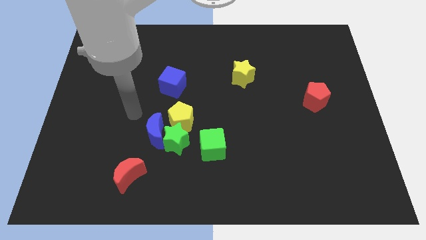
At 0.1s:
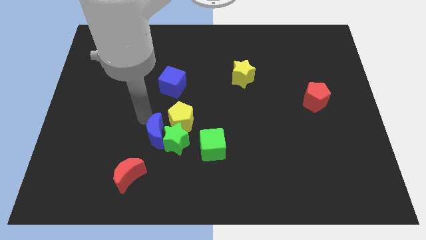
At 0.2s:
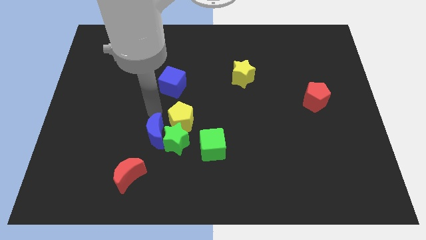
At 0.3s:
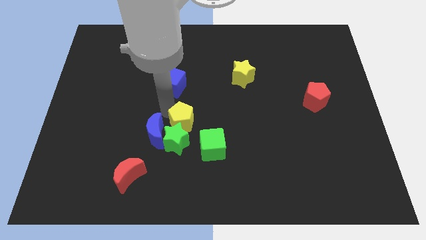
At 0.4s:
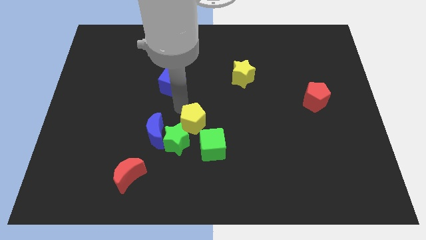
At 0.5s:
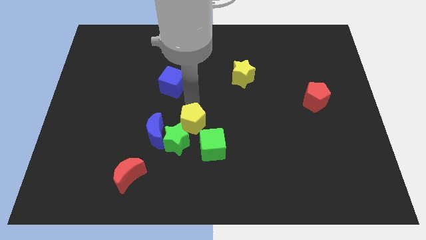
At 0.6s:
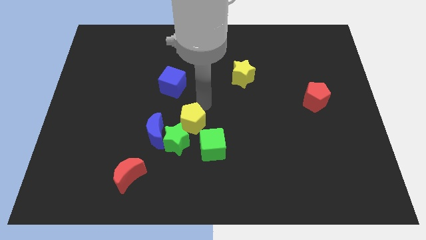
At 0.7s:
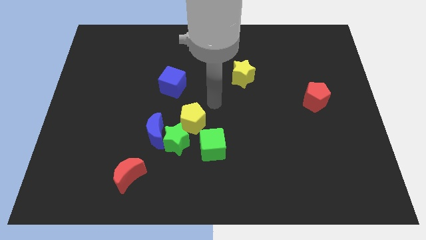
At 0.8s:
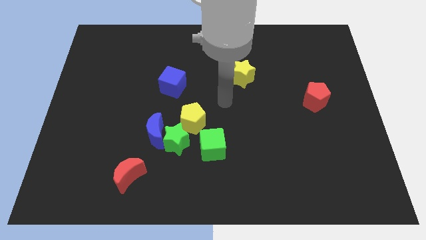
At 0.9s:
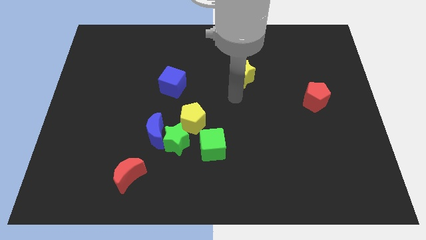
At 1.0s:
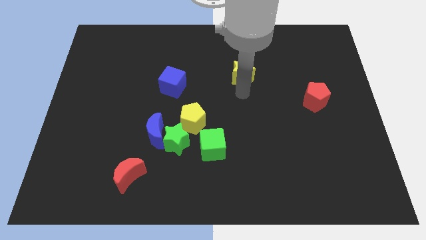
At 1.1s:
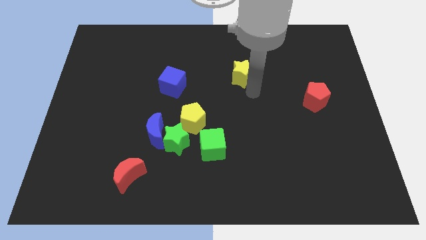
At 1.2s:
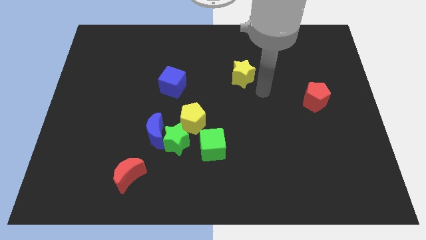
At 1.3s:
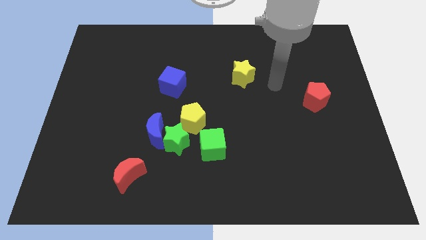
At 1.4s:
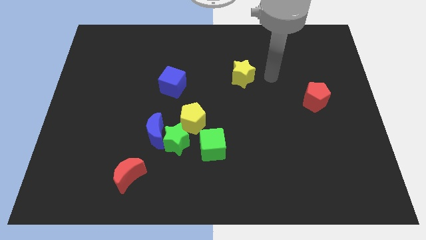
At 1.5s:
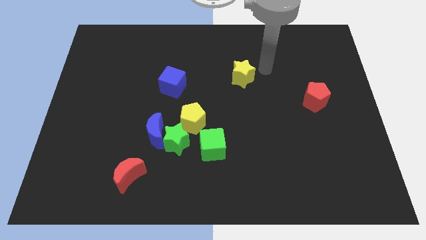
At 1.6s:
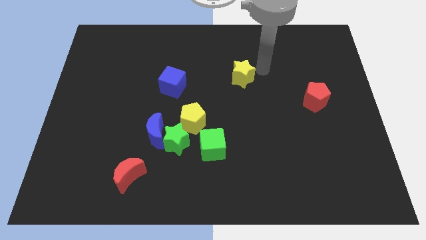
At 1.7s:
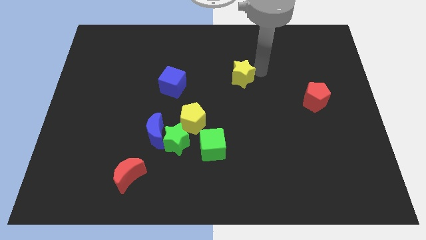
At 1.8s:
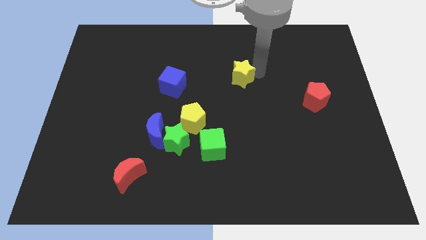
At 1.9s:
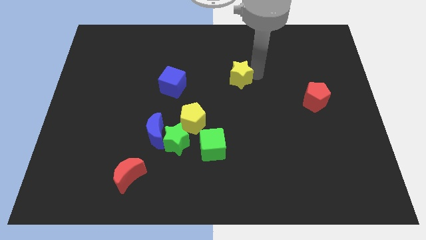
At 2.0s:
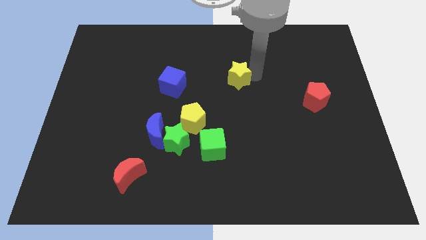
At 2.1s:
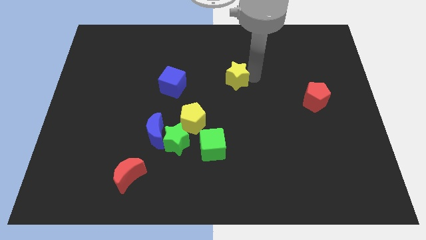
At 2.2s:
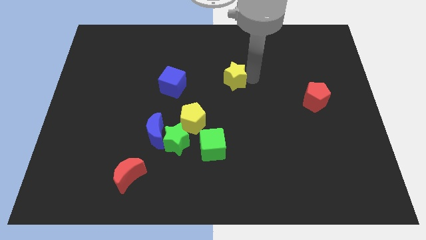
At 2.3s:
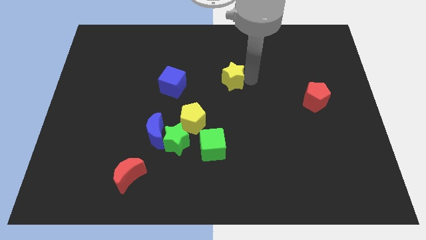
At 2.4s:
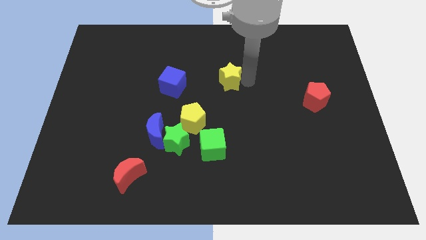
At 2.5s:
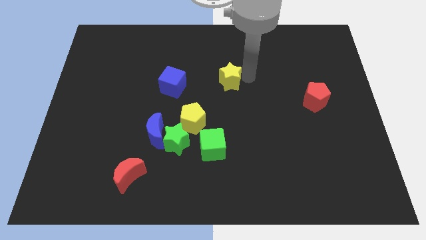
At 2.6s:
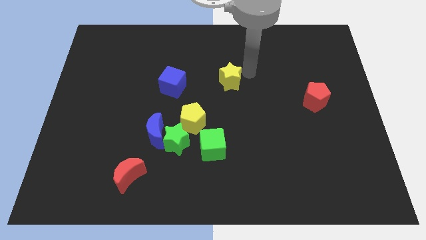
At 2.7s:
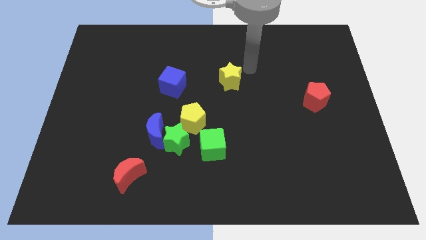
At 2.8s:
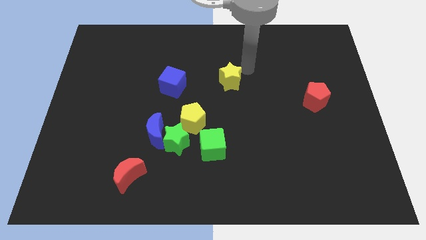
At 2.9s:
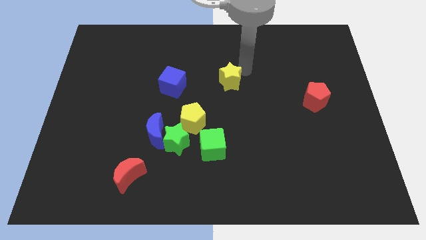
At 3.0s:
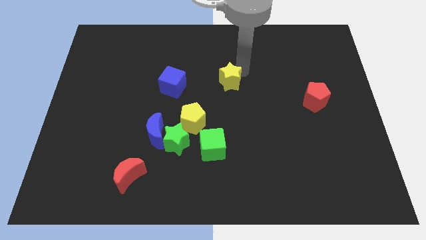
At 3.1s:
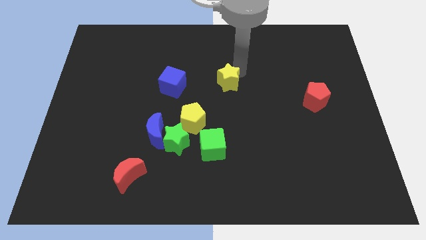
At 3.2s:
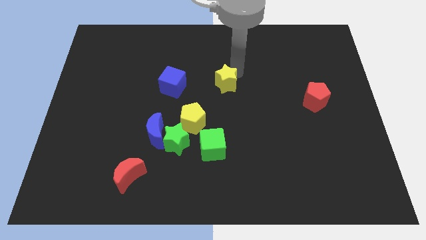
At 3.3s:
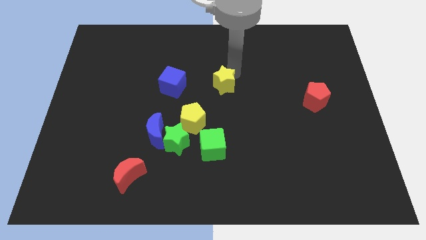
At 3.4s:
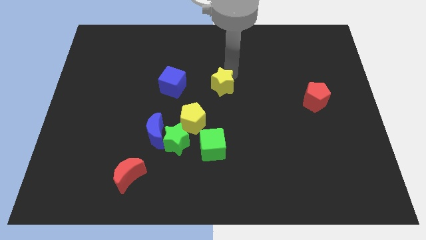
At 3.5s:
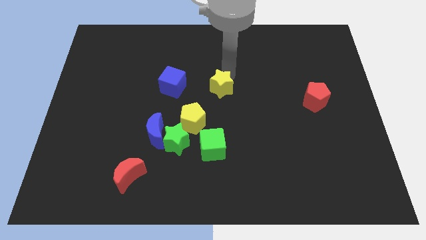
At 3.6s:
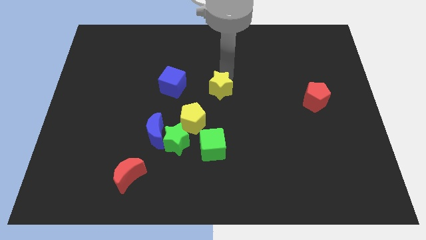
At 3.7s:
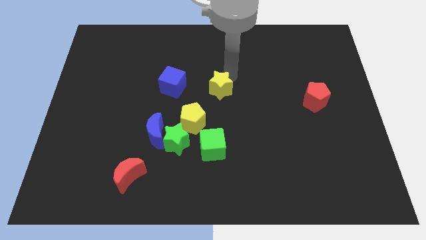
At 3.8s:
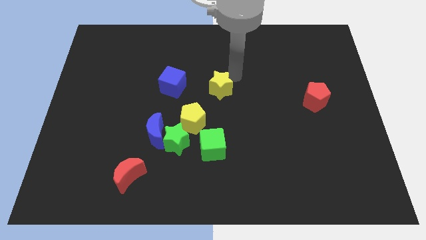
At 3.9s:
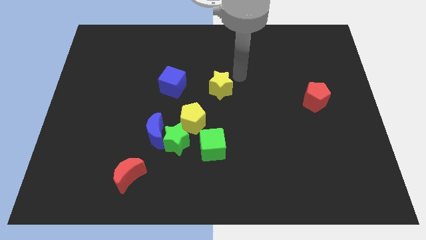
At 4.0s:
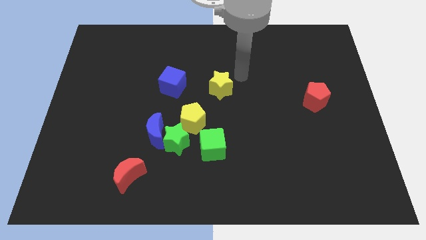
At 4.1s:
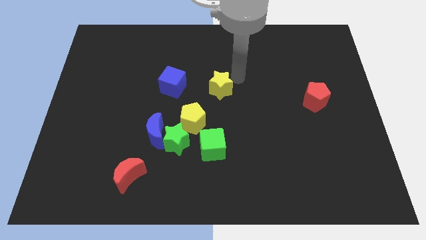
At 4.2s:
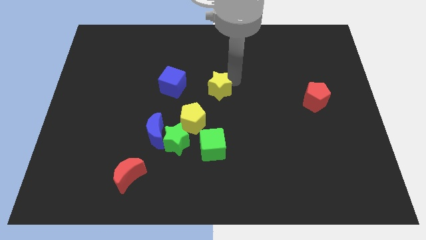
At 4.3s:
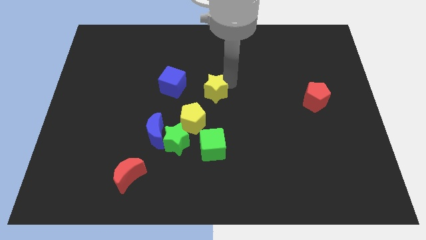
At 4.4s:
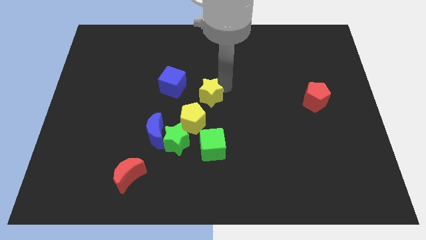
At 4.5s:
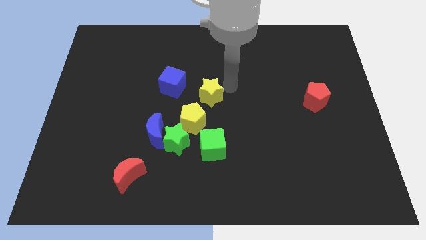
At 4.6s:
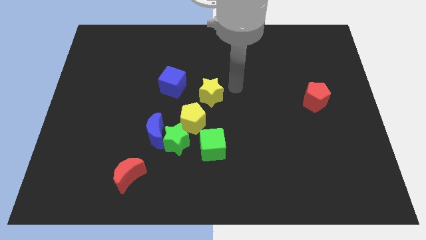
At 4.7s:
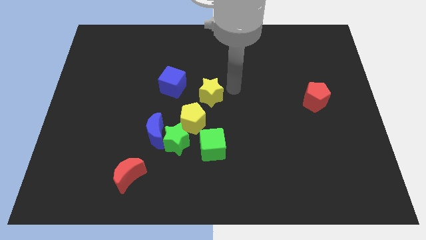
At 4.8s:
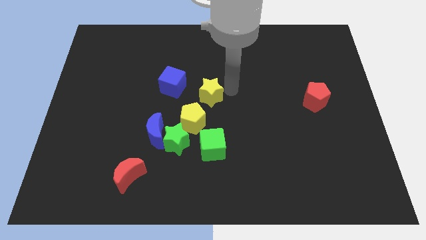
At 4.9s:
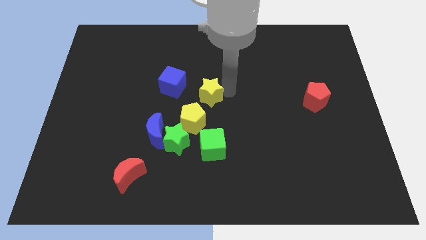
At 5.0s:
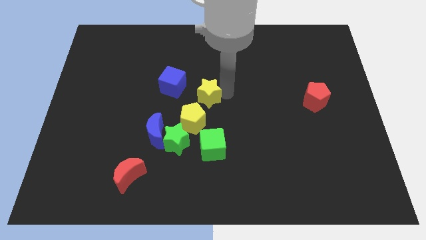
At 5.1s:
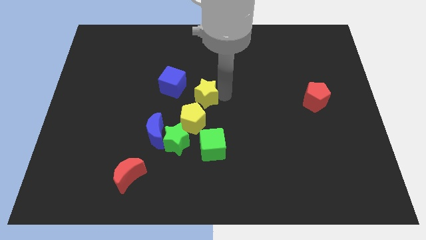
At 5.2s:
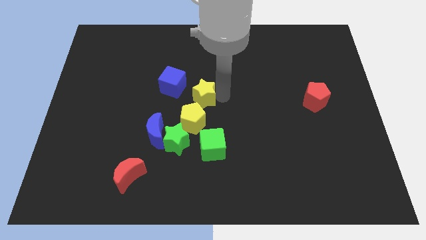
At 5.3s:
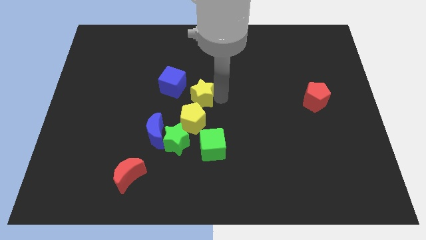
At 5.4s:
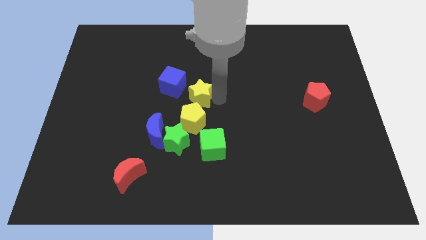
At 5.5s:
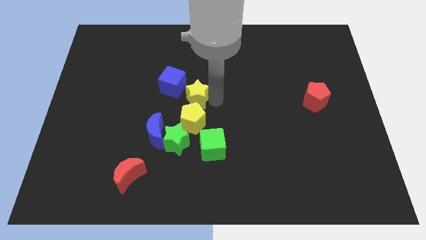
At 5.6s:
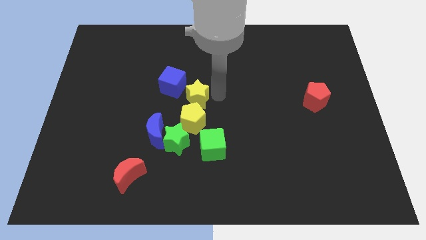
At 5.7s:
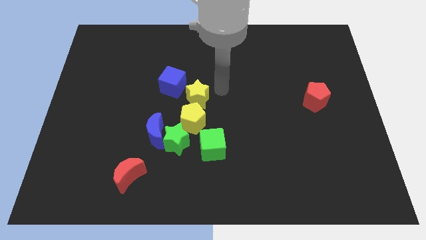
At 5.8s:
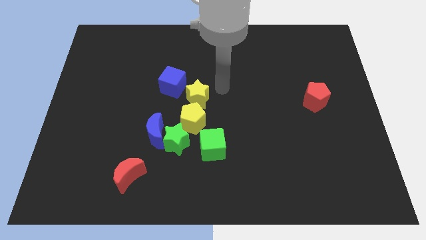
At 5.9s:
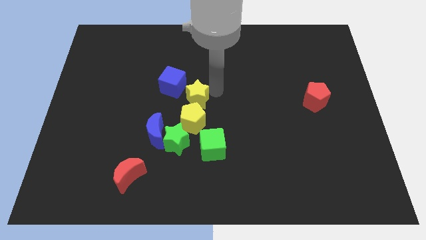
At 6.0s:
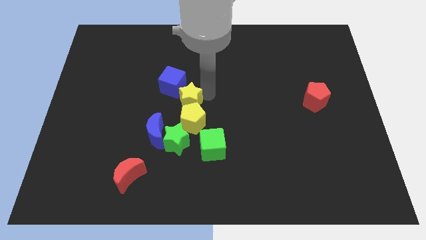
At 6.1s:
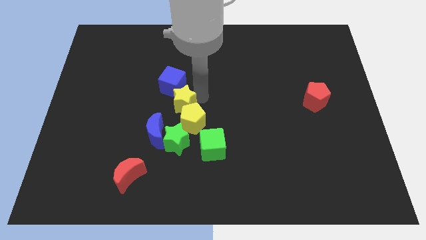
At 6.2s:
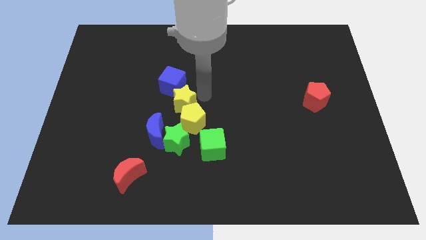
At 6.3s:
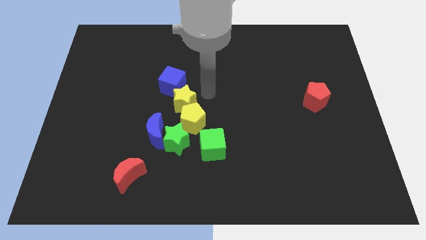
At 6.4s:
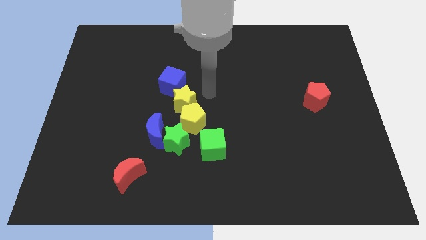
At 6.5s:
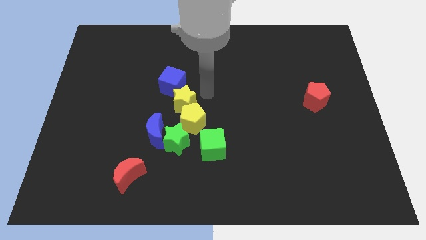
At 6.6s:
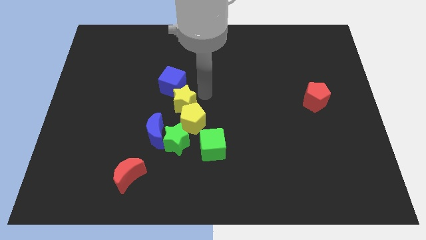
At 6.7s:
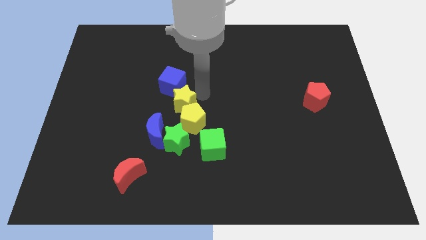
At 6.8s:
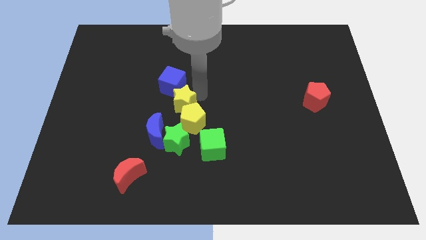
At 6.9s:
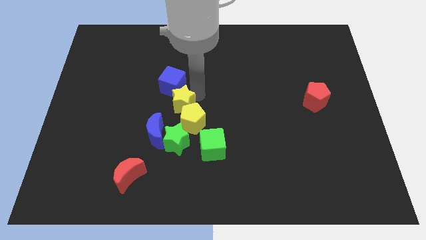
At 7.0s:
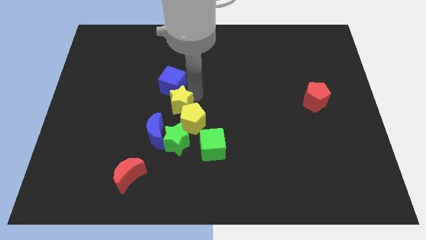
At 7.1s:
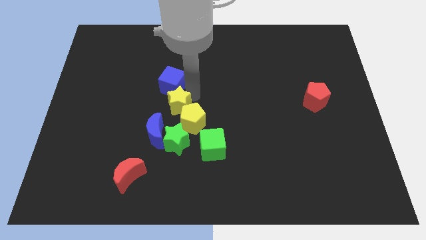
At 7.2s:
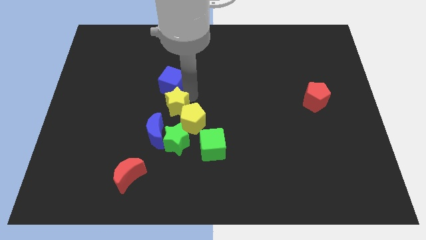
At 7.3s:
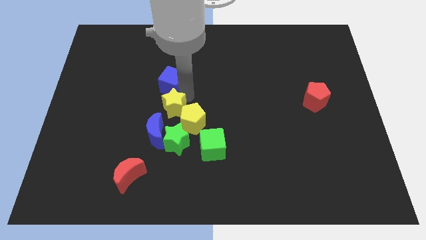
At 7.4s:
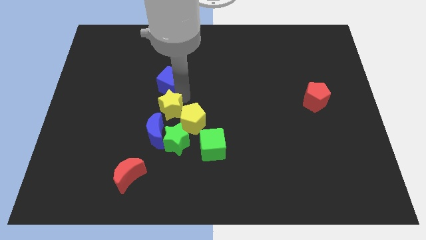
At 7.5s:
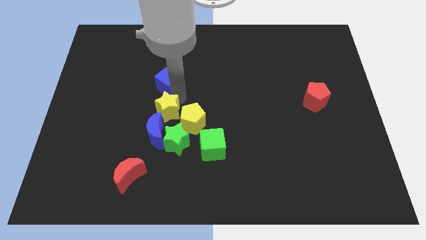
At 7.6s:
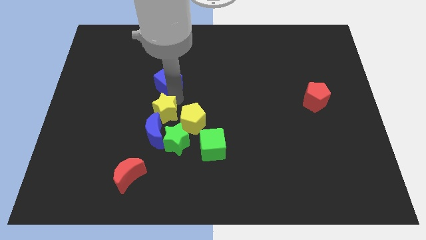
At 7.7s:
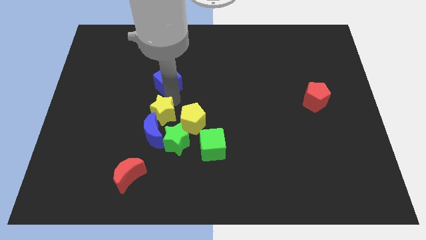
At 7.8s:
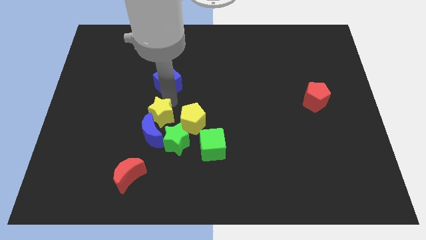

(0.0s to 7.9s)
push the yellow star next to the blue moon
